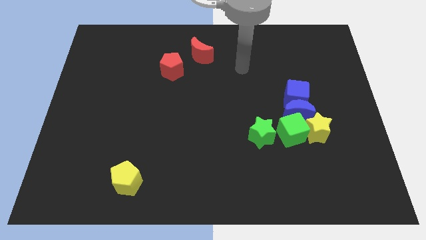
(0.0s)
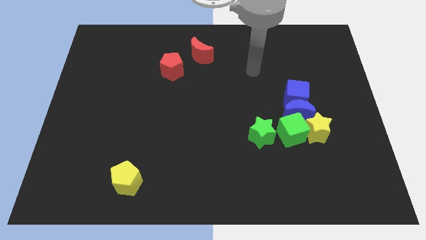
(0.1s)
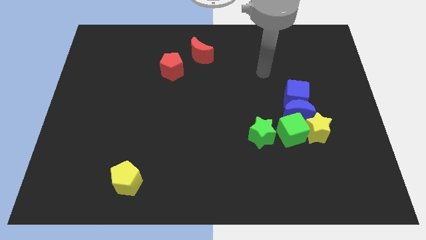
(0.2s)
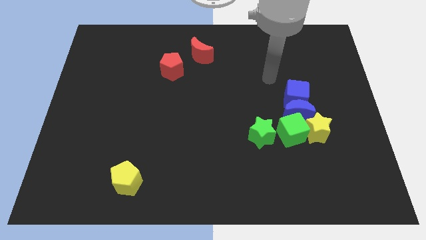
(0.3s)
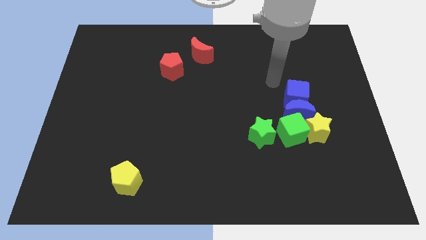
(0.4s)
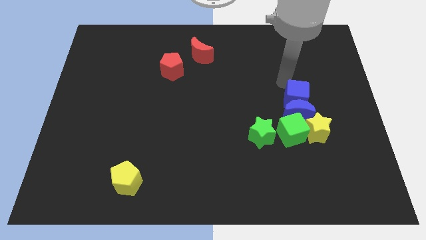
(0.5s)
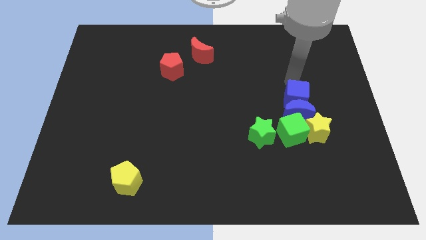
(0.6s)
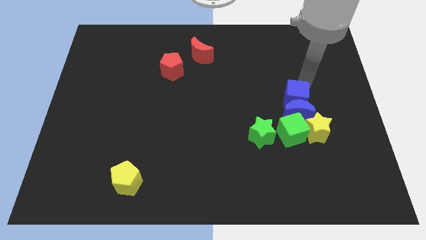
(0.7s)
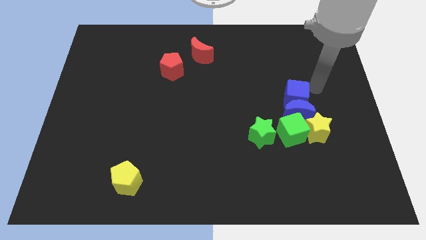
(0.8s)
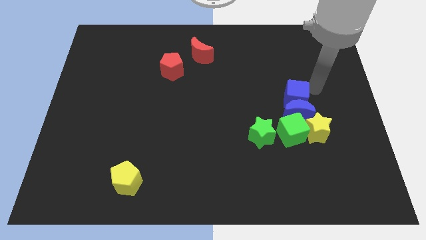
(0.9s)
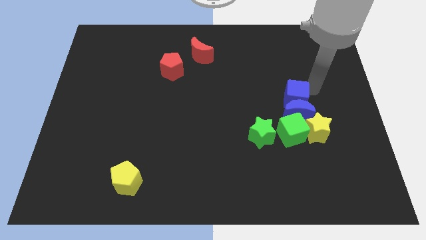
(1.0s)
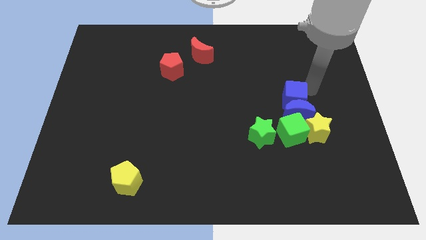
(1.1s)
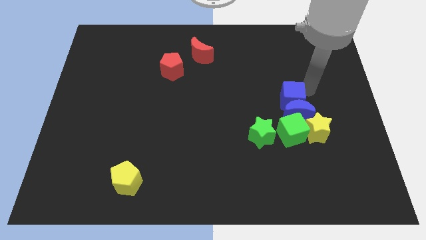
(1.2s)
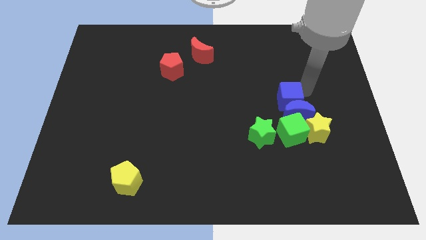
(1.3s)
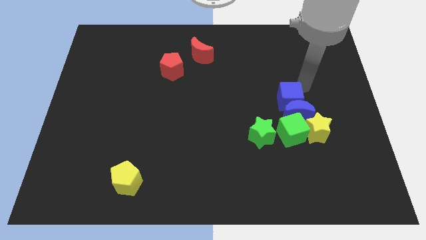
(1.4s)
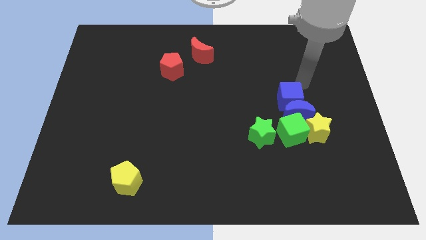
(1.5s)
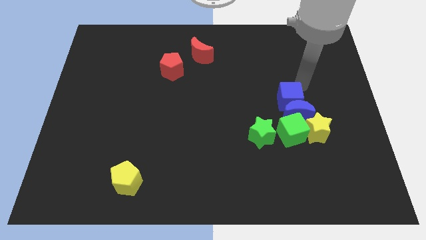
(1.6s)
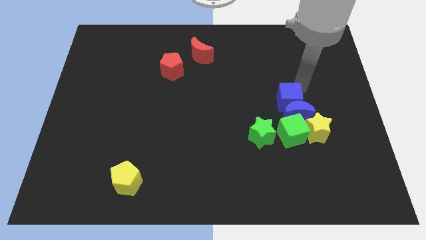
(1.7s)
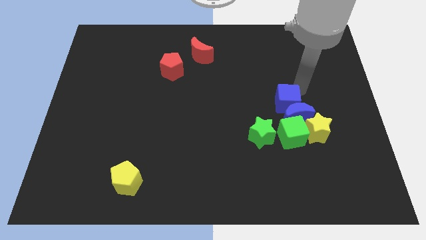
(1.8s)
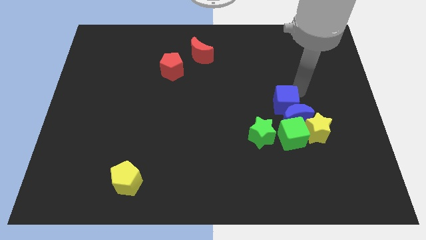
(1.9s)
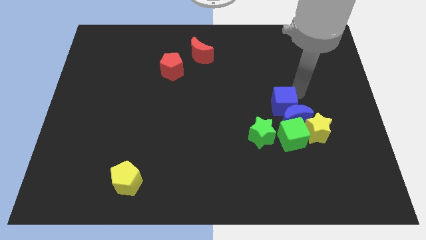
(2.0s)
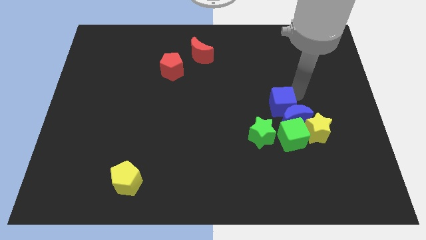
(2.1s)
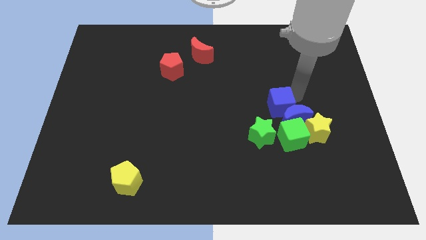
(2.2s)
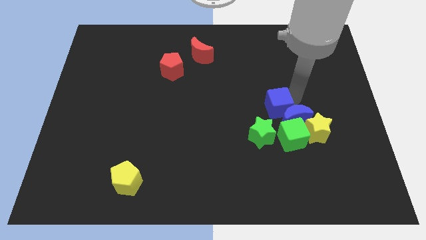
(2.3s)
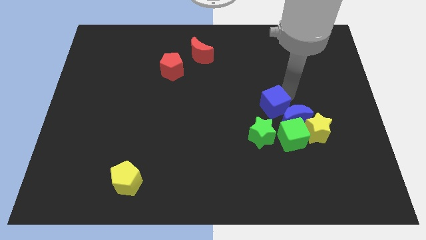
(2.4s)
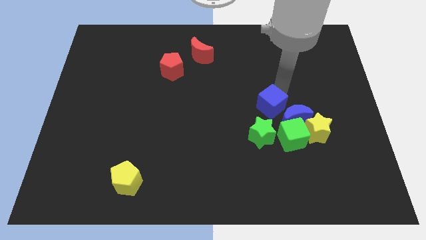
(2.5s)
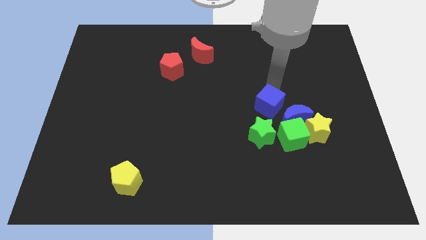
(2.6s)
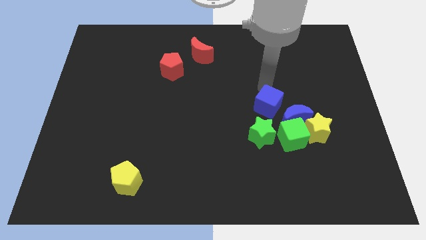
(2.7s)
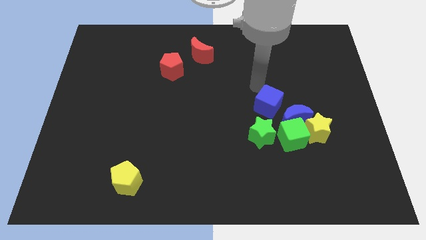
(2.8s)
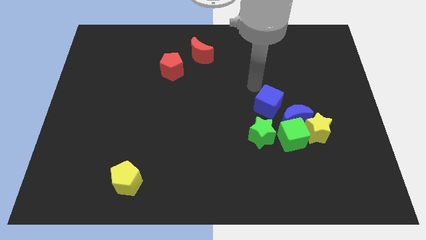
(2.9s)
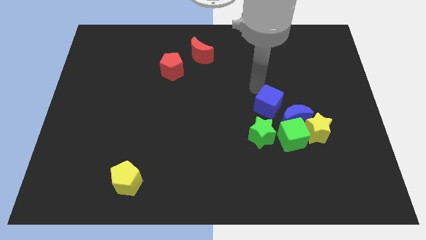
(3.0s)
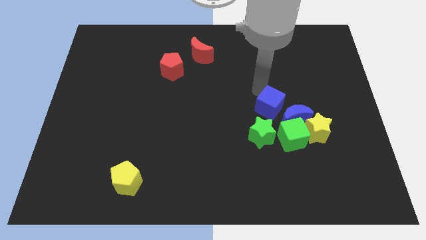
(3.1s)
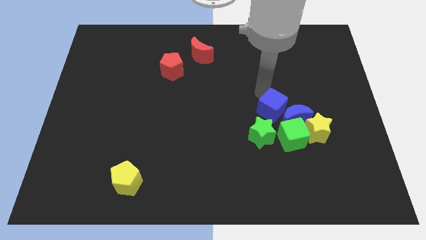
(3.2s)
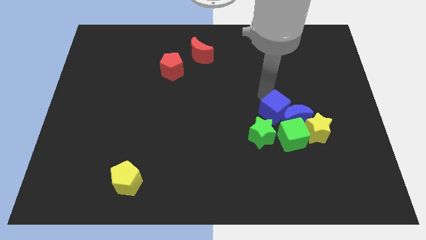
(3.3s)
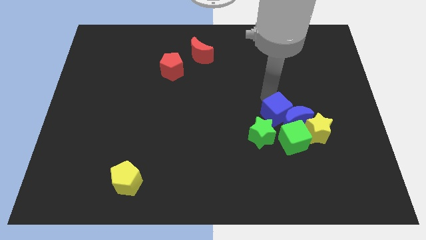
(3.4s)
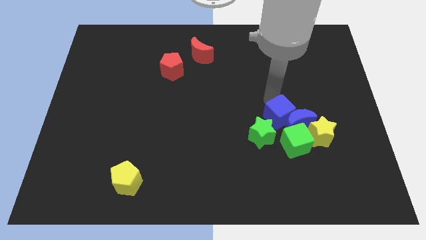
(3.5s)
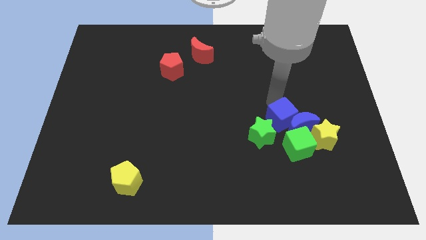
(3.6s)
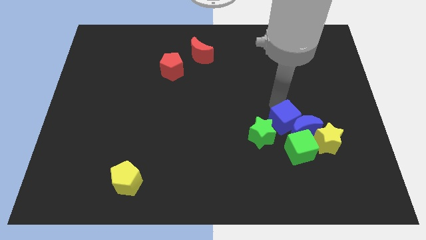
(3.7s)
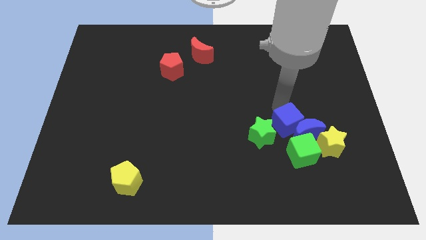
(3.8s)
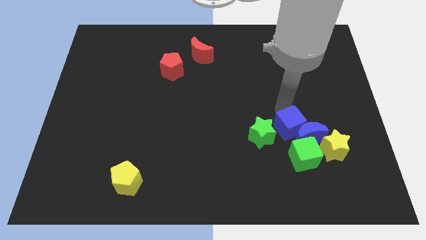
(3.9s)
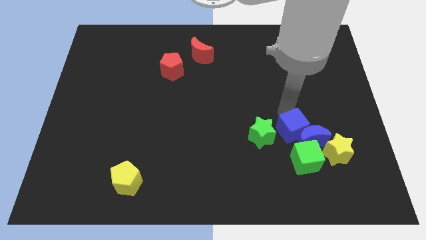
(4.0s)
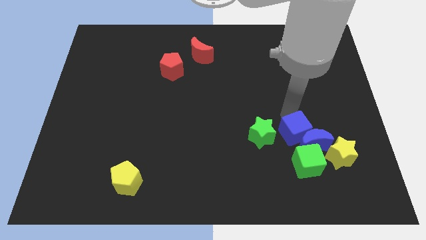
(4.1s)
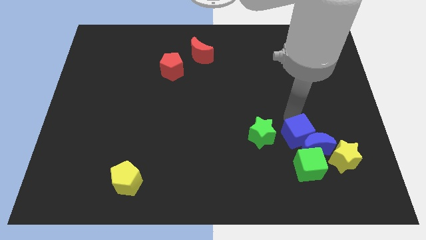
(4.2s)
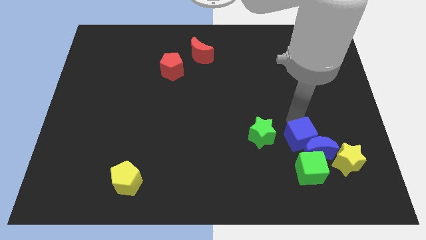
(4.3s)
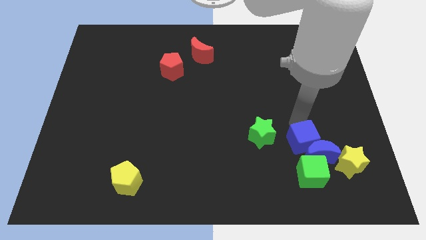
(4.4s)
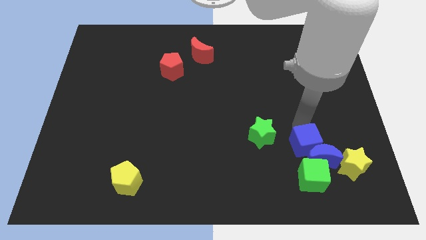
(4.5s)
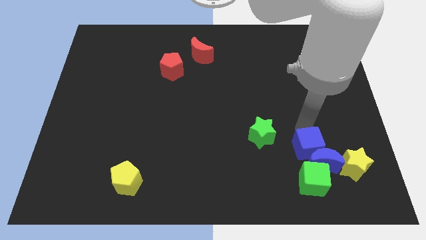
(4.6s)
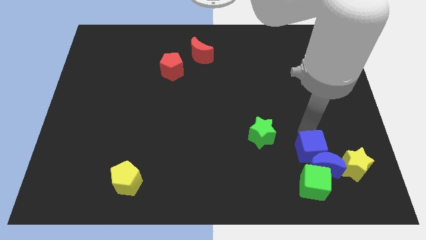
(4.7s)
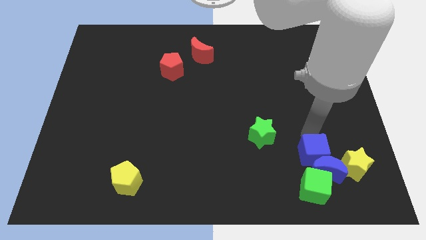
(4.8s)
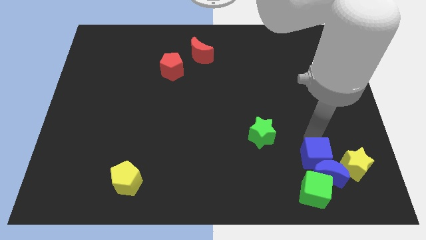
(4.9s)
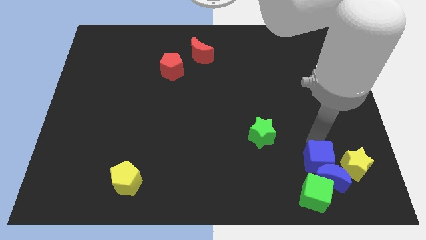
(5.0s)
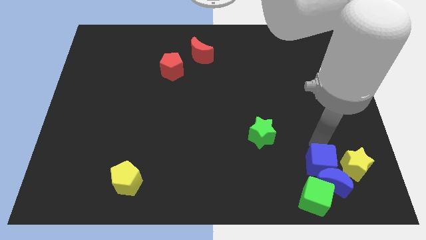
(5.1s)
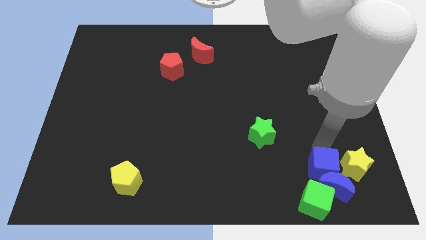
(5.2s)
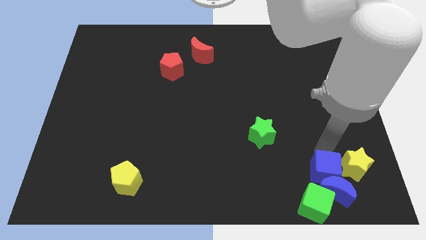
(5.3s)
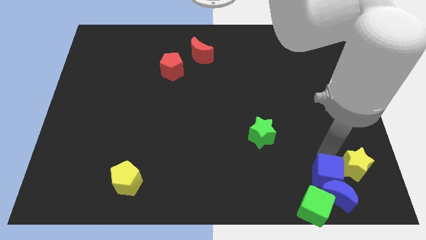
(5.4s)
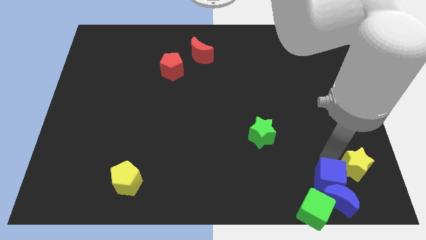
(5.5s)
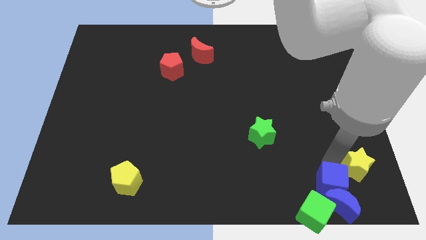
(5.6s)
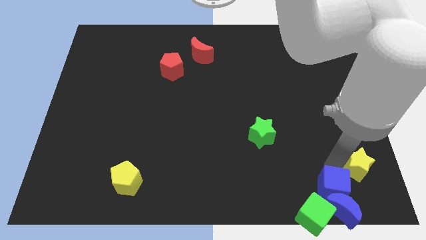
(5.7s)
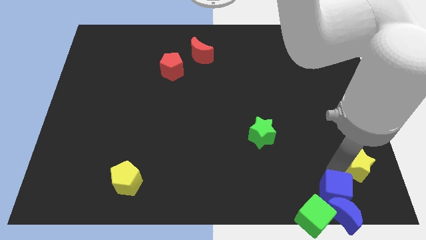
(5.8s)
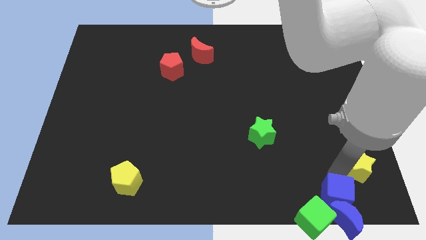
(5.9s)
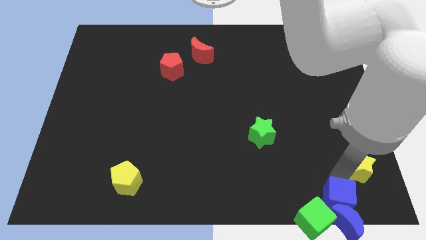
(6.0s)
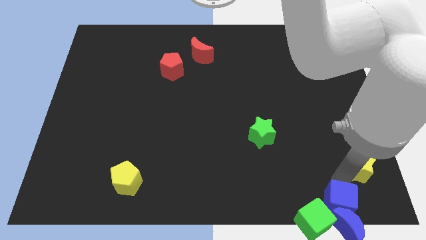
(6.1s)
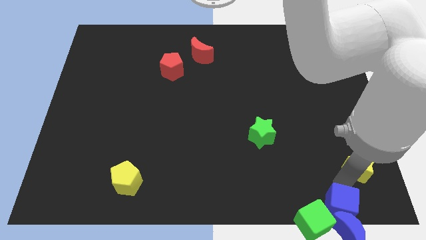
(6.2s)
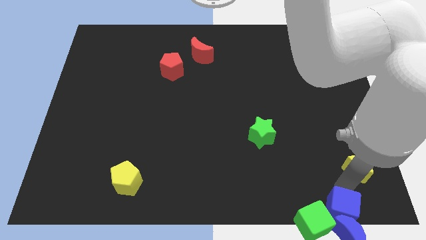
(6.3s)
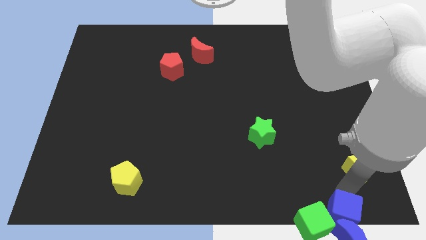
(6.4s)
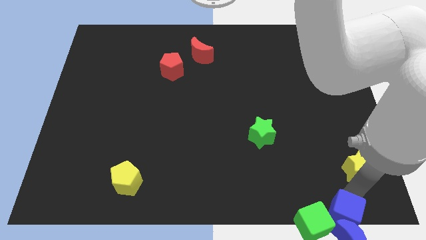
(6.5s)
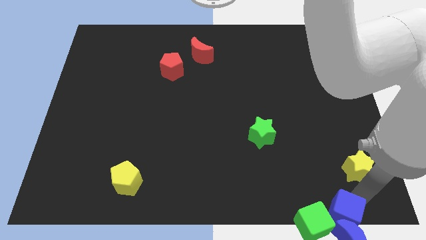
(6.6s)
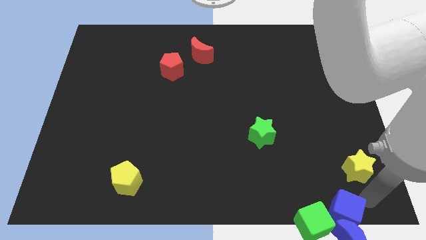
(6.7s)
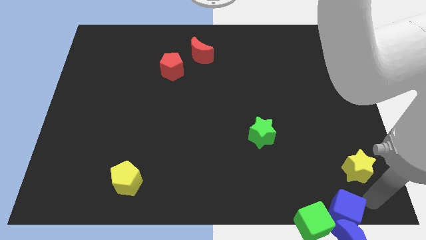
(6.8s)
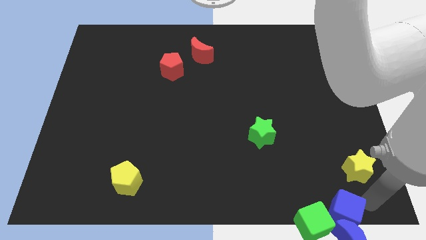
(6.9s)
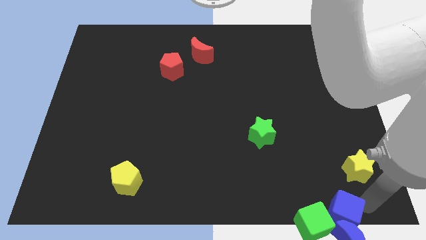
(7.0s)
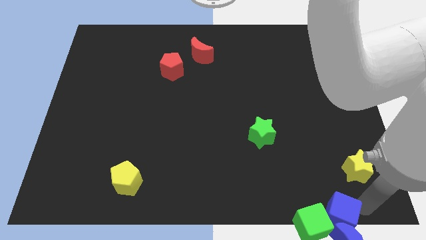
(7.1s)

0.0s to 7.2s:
move the blue cube next to the green cube

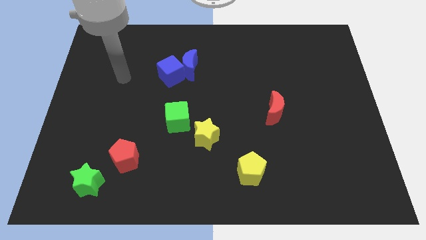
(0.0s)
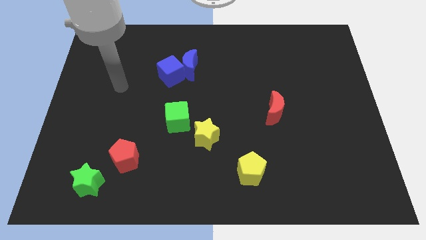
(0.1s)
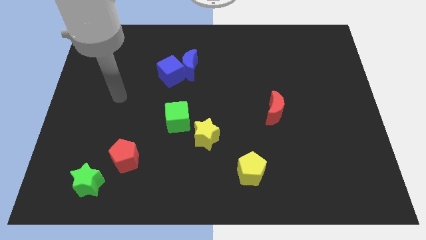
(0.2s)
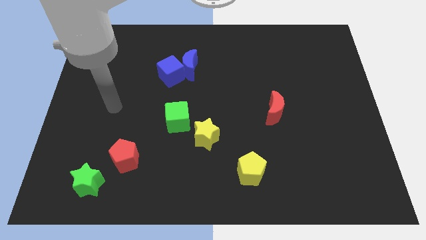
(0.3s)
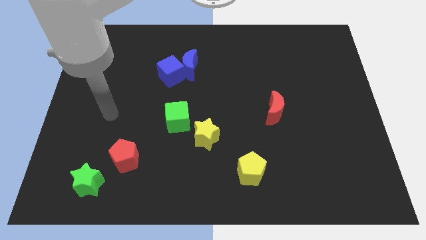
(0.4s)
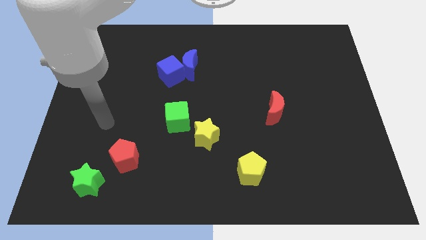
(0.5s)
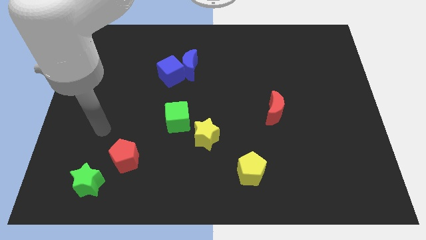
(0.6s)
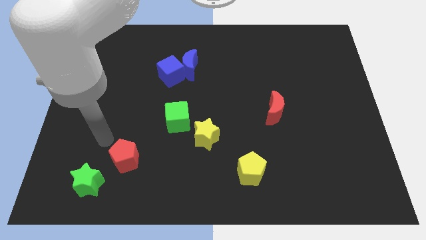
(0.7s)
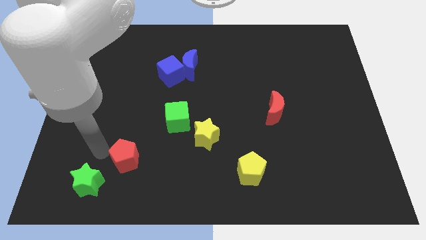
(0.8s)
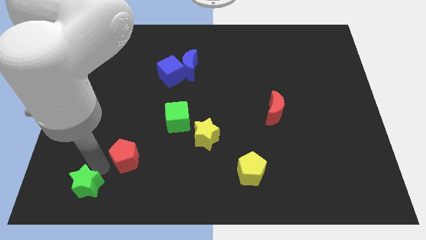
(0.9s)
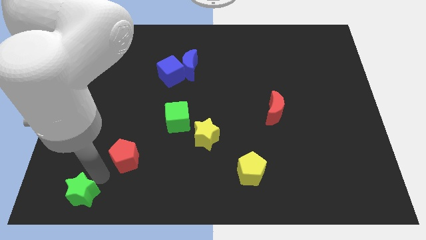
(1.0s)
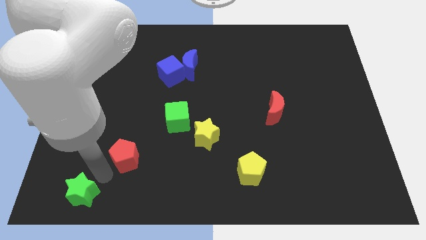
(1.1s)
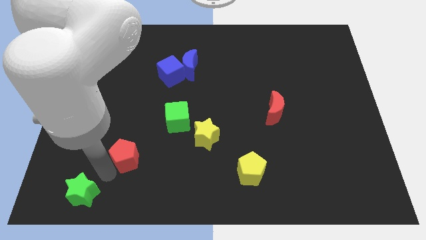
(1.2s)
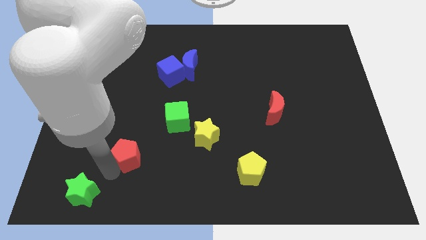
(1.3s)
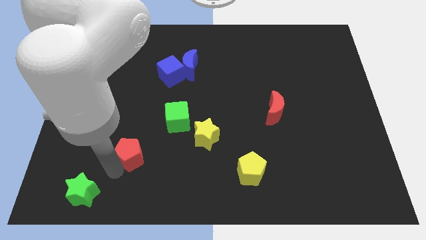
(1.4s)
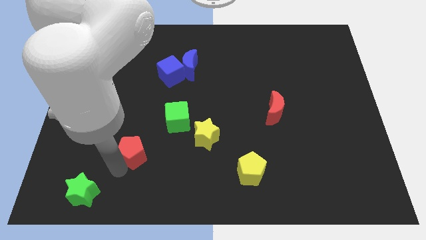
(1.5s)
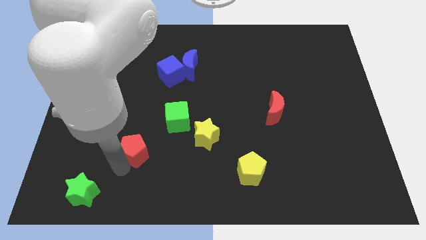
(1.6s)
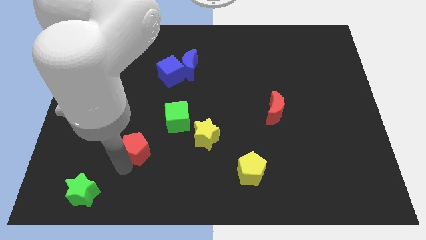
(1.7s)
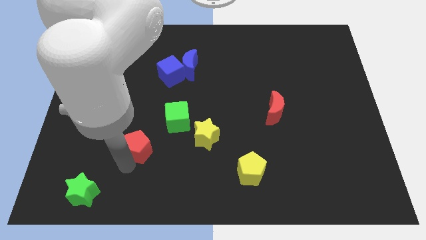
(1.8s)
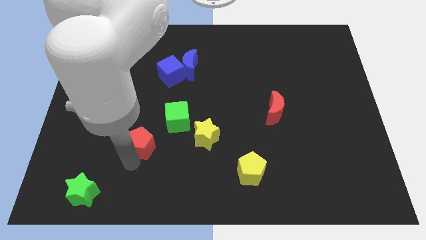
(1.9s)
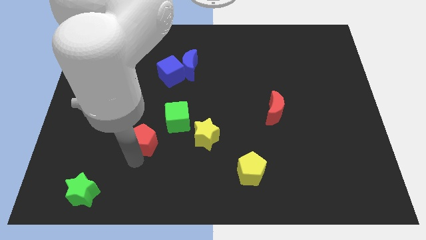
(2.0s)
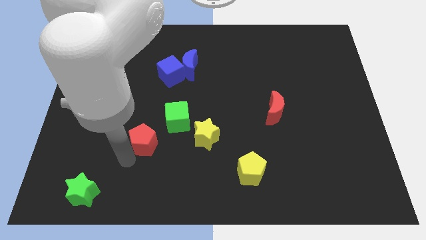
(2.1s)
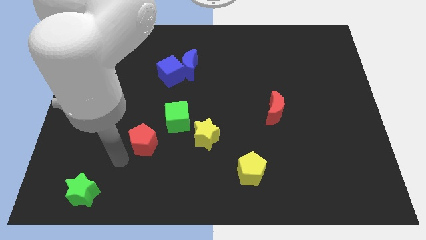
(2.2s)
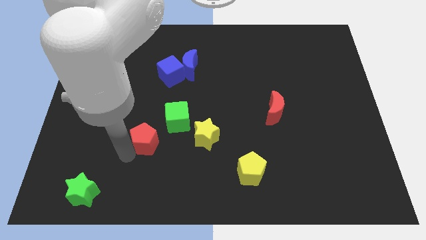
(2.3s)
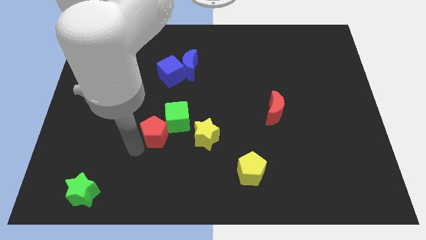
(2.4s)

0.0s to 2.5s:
move the red pentagon next to the green cube
